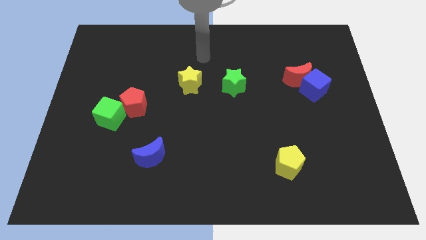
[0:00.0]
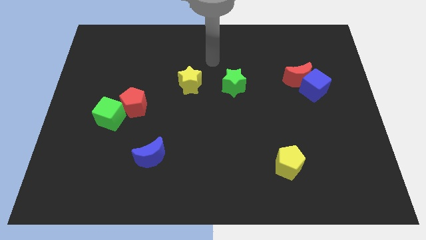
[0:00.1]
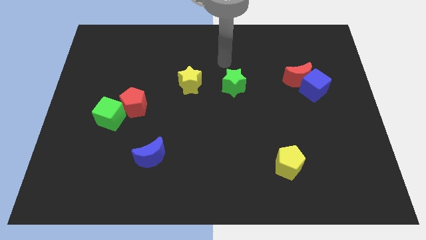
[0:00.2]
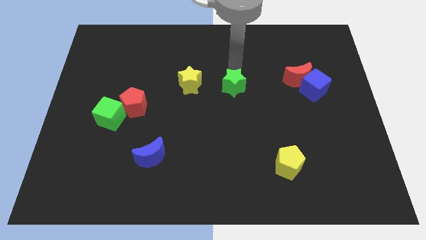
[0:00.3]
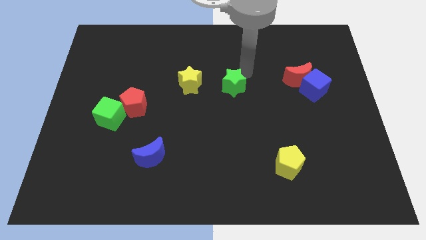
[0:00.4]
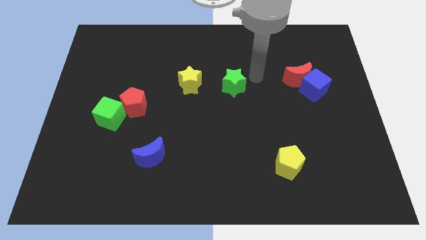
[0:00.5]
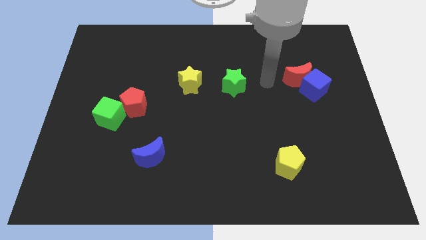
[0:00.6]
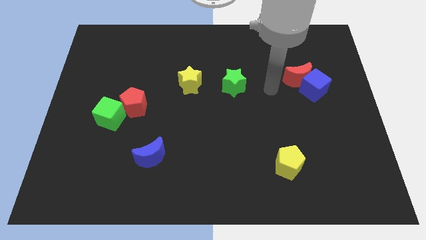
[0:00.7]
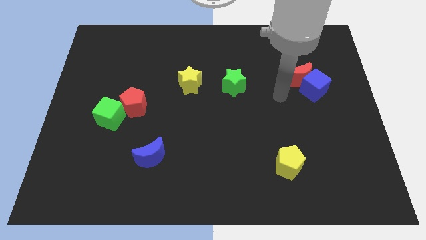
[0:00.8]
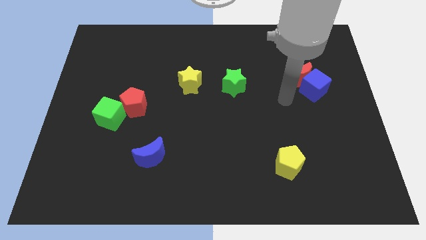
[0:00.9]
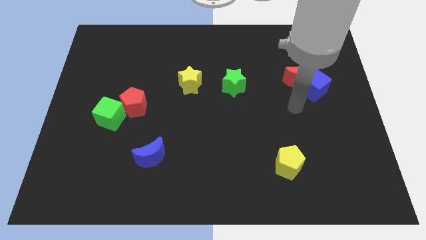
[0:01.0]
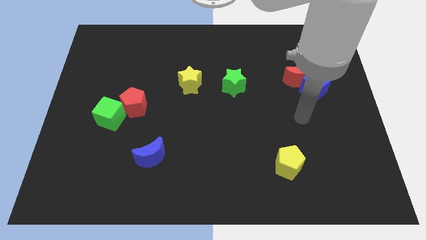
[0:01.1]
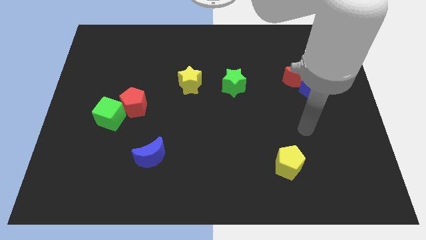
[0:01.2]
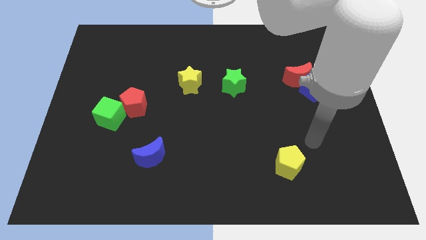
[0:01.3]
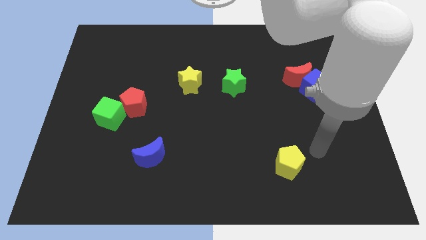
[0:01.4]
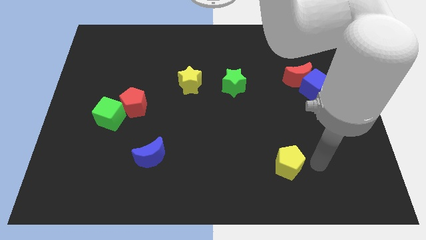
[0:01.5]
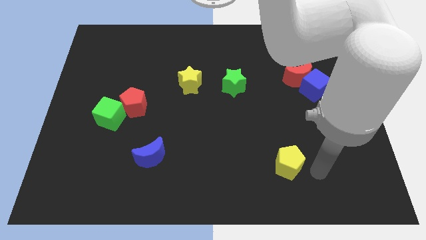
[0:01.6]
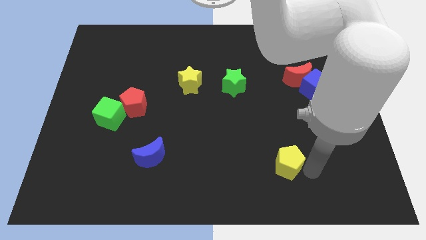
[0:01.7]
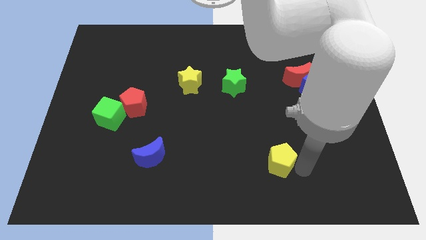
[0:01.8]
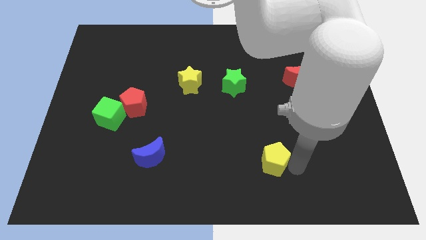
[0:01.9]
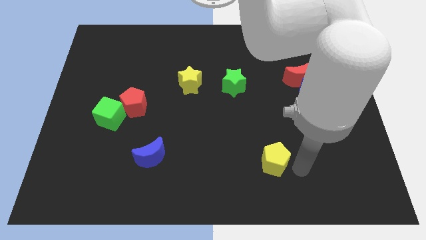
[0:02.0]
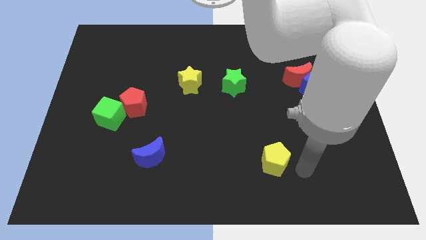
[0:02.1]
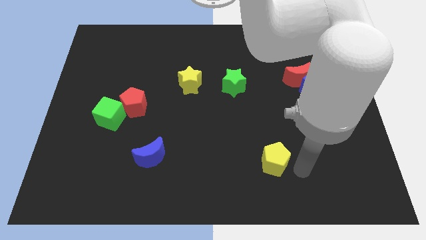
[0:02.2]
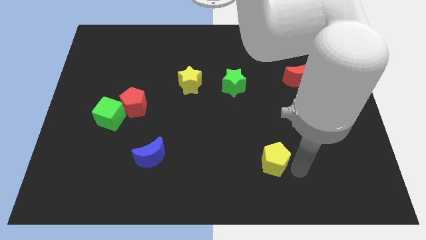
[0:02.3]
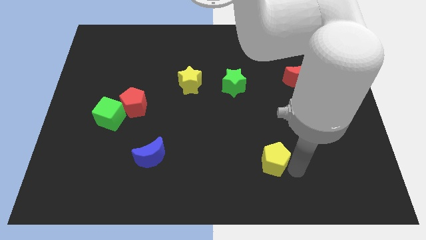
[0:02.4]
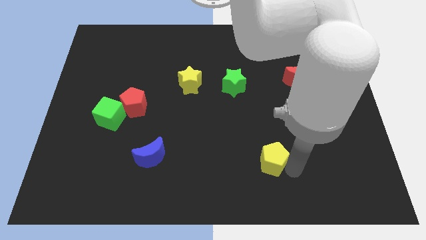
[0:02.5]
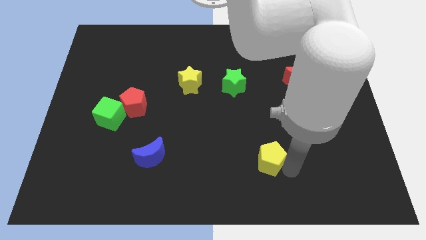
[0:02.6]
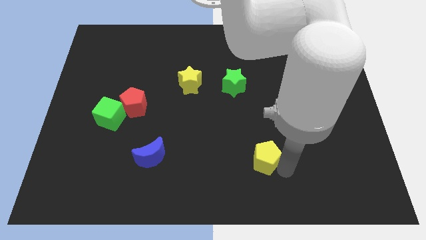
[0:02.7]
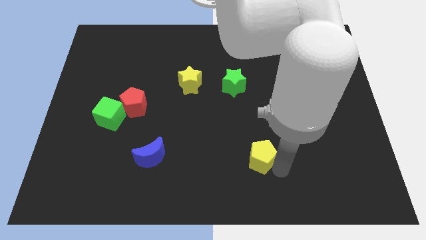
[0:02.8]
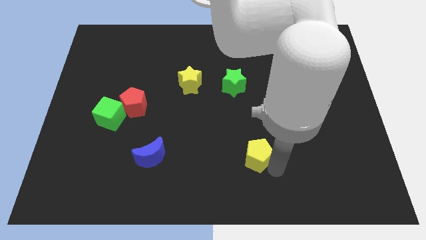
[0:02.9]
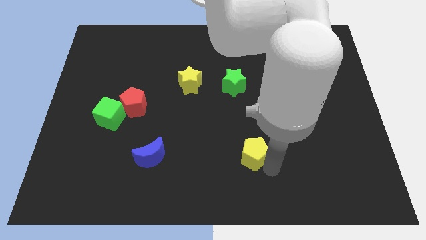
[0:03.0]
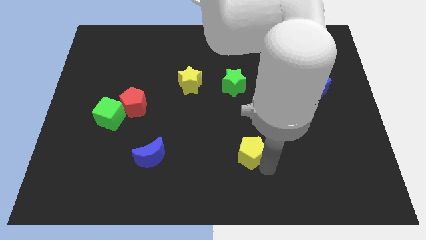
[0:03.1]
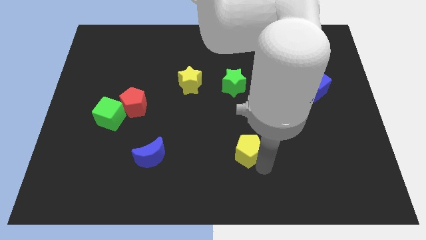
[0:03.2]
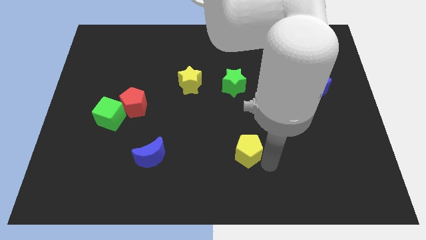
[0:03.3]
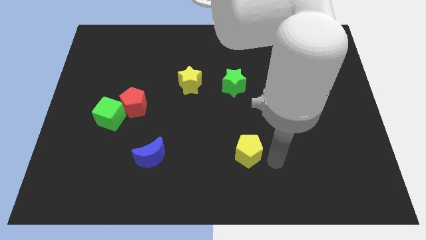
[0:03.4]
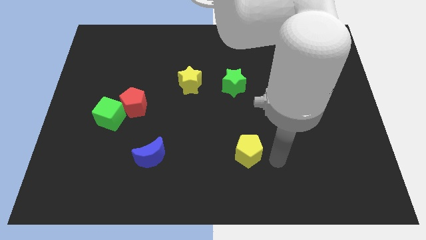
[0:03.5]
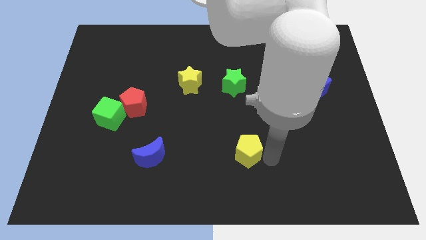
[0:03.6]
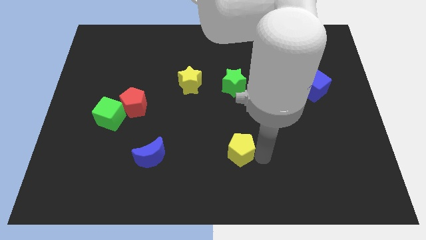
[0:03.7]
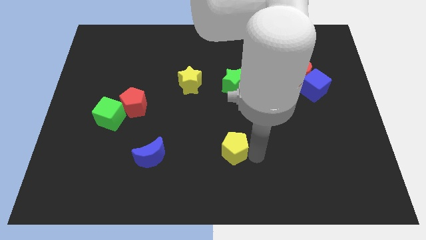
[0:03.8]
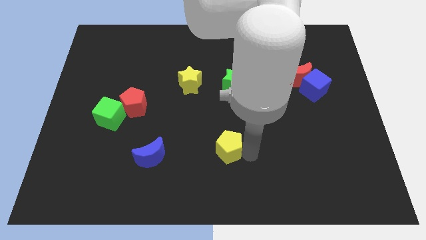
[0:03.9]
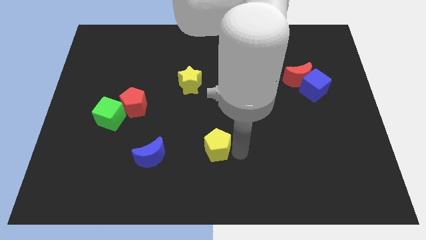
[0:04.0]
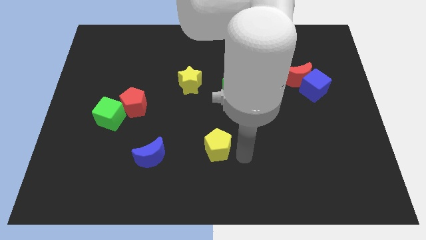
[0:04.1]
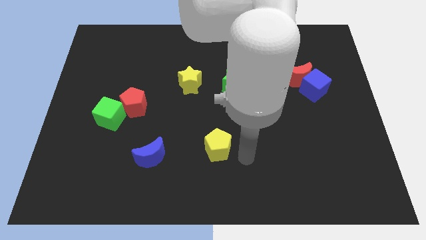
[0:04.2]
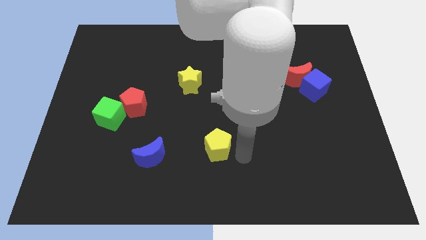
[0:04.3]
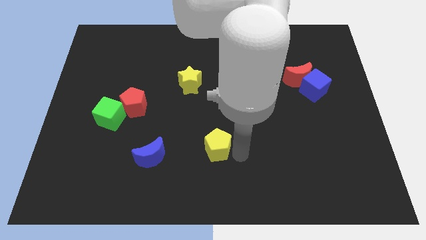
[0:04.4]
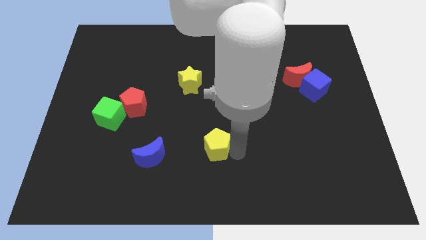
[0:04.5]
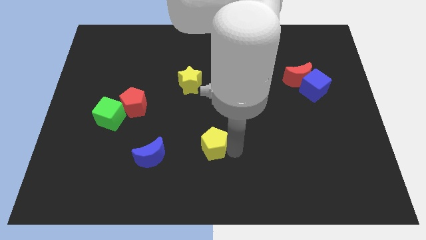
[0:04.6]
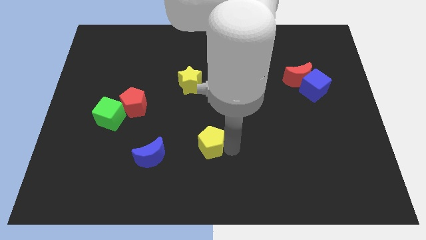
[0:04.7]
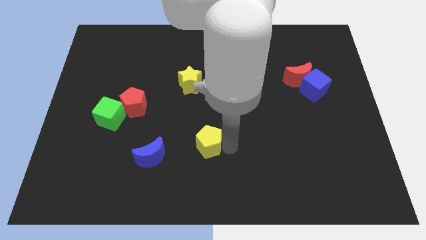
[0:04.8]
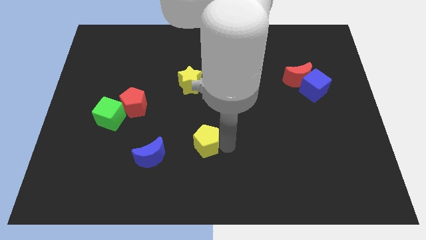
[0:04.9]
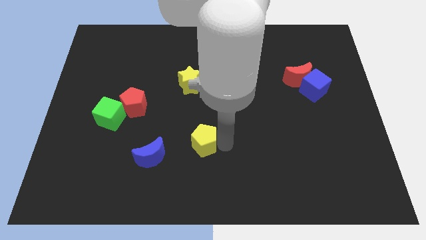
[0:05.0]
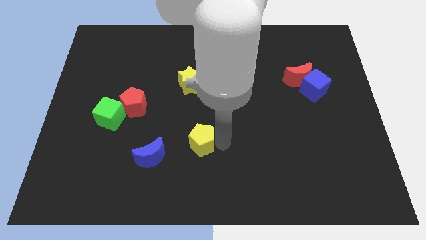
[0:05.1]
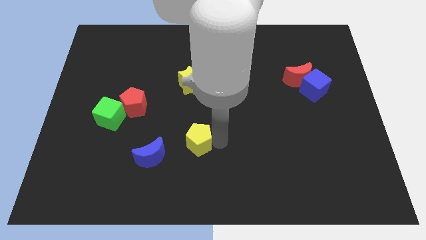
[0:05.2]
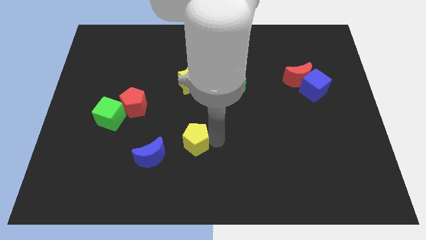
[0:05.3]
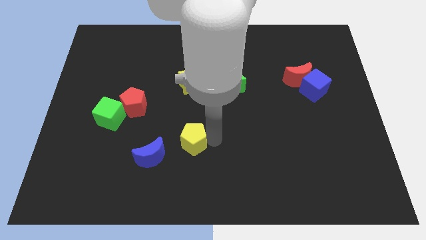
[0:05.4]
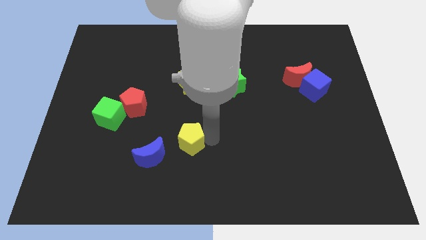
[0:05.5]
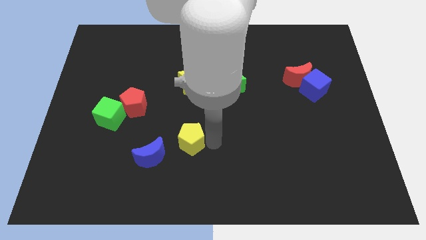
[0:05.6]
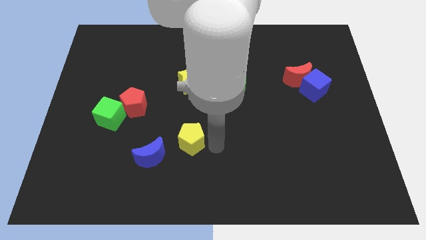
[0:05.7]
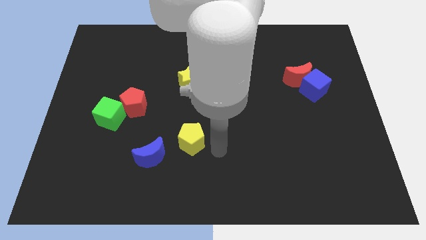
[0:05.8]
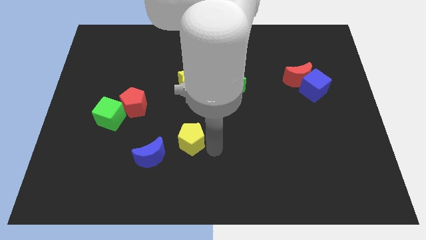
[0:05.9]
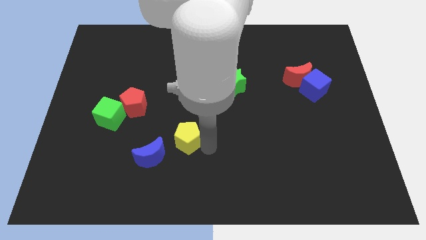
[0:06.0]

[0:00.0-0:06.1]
push the yellow pentagon to the left

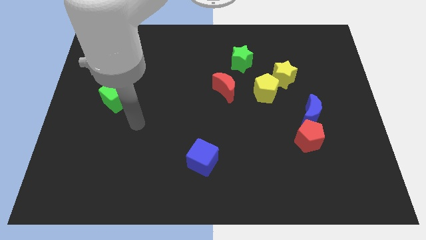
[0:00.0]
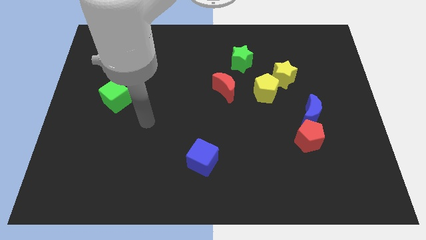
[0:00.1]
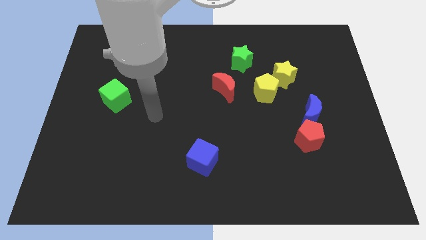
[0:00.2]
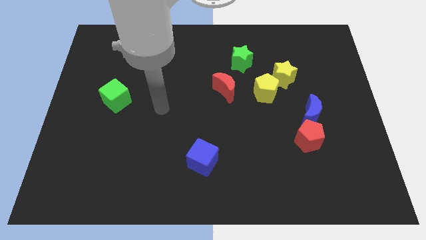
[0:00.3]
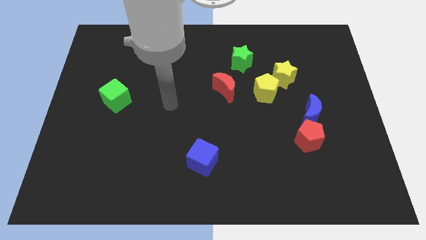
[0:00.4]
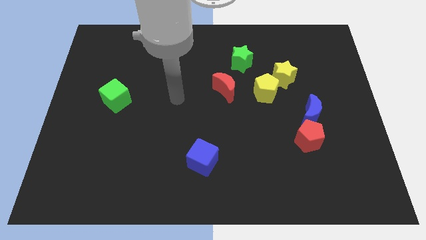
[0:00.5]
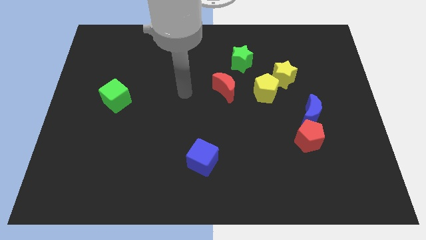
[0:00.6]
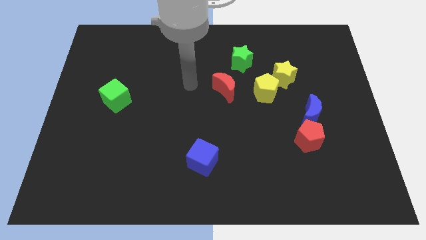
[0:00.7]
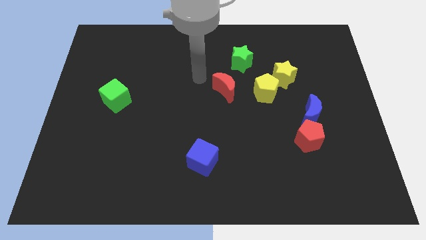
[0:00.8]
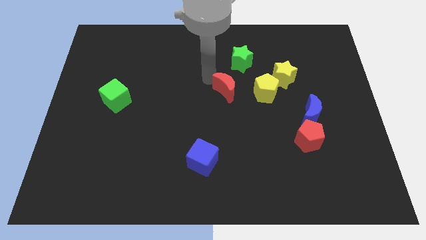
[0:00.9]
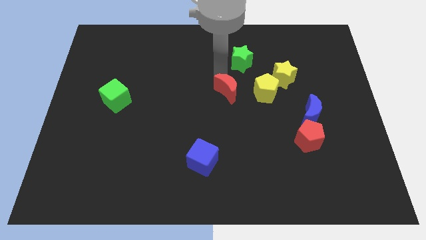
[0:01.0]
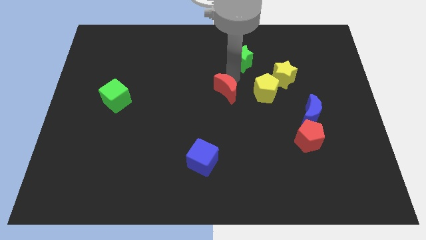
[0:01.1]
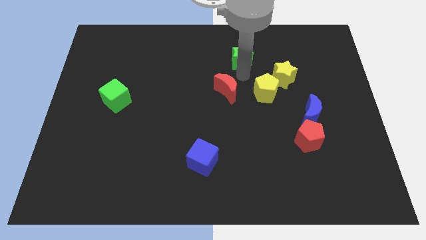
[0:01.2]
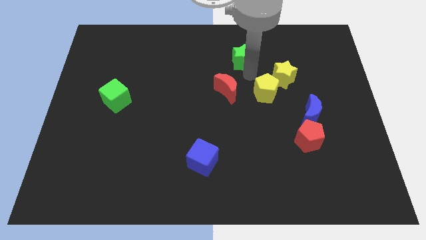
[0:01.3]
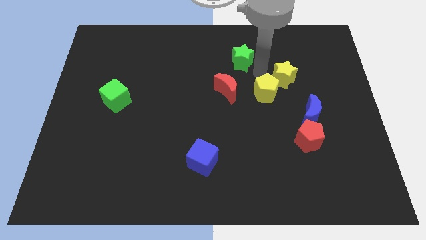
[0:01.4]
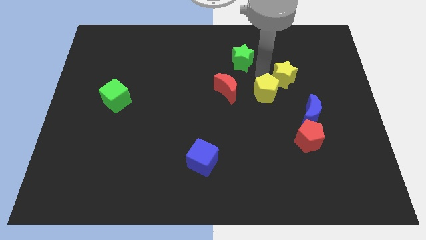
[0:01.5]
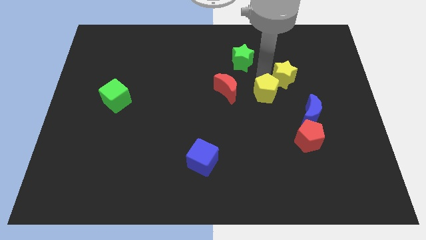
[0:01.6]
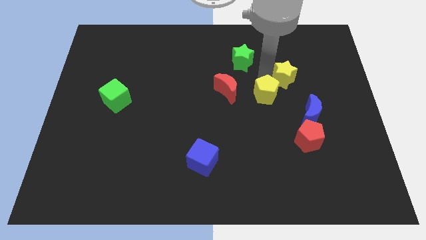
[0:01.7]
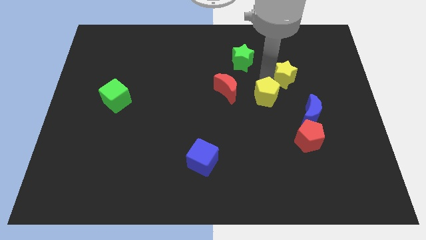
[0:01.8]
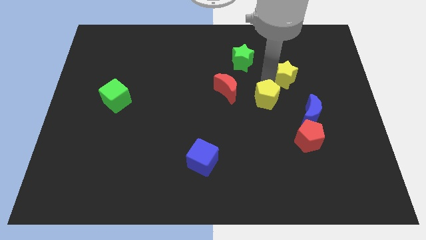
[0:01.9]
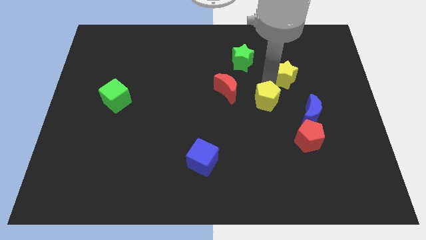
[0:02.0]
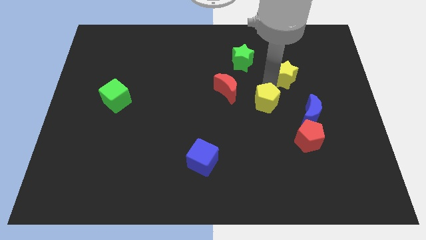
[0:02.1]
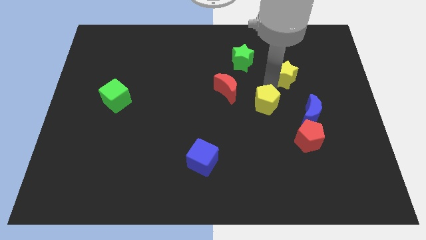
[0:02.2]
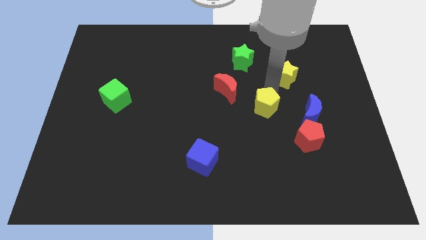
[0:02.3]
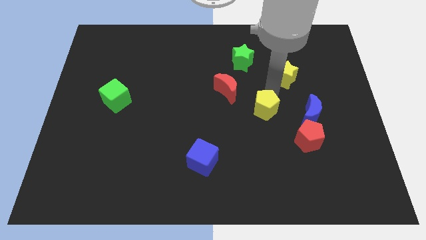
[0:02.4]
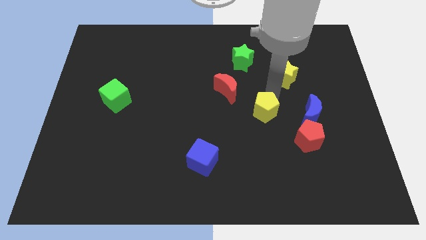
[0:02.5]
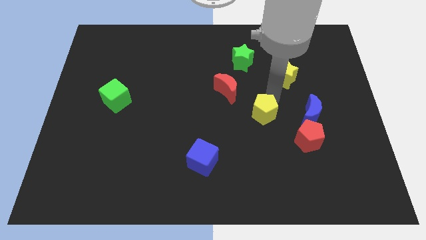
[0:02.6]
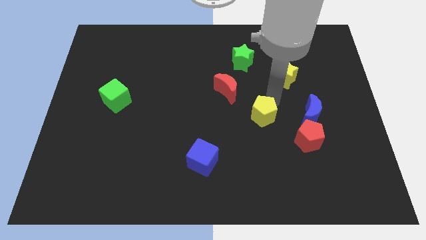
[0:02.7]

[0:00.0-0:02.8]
slightly push the yellow pentagon down
